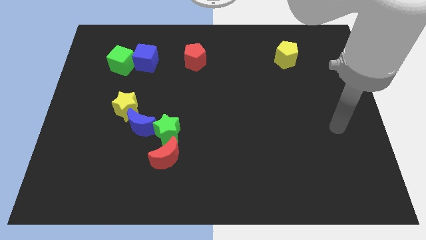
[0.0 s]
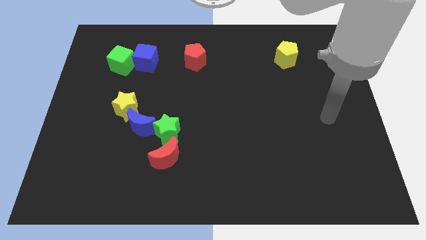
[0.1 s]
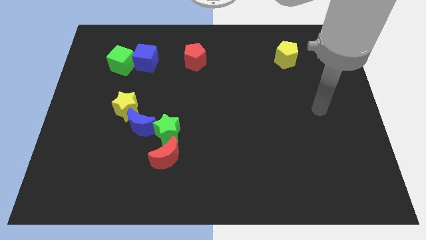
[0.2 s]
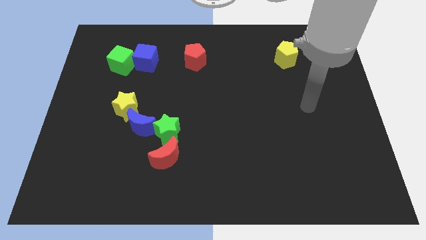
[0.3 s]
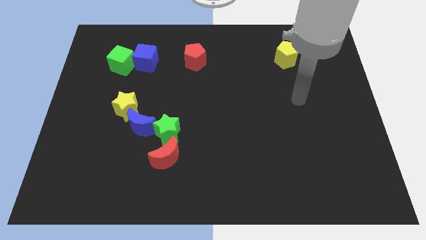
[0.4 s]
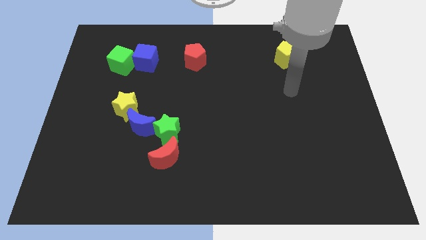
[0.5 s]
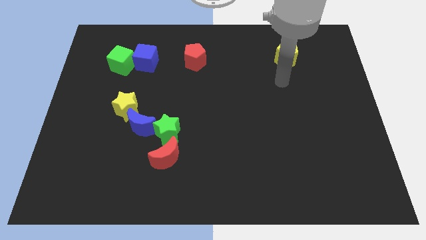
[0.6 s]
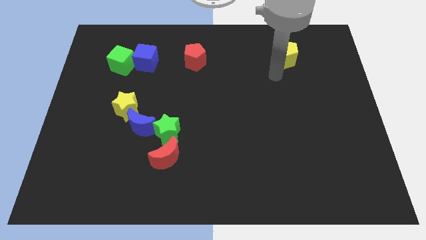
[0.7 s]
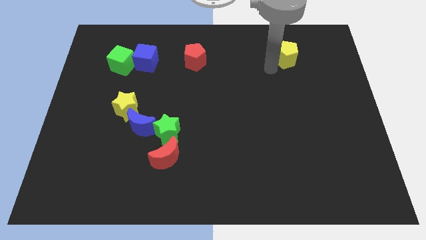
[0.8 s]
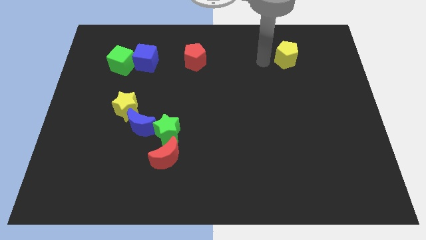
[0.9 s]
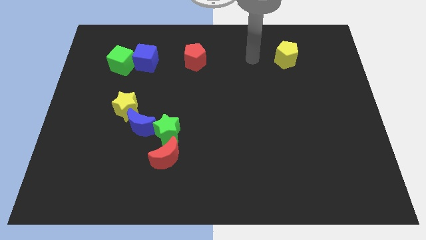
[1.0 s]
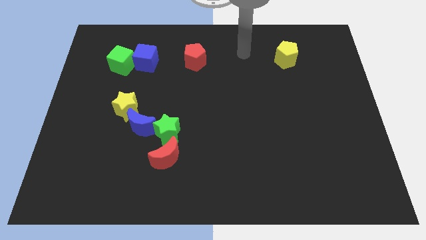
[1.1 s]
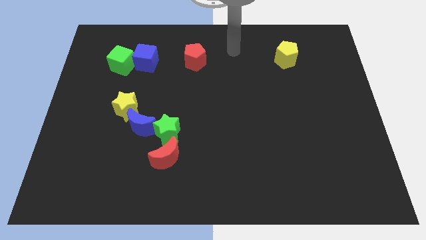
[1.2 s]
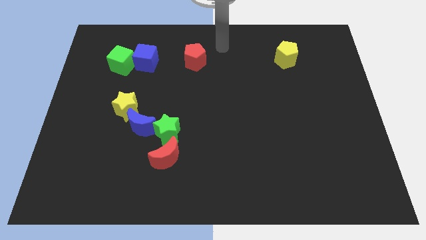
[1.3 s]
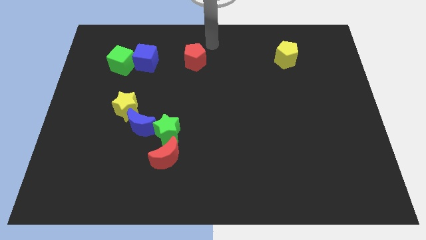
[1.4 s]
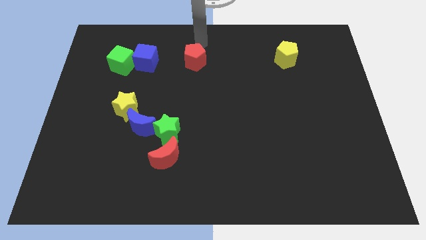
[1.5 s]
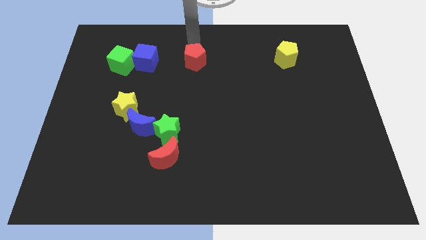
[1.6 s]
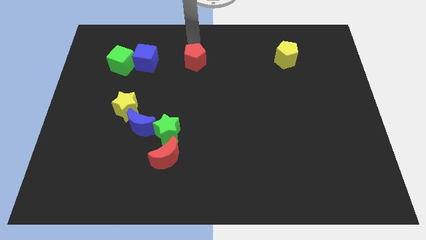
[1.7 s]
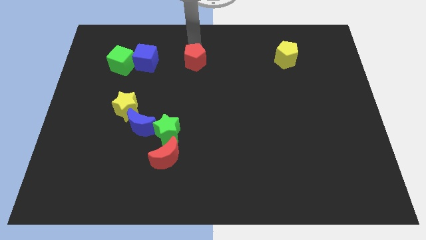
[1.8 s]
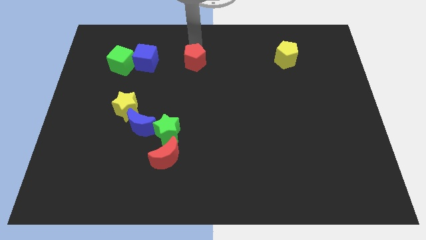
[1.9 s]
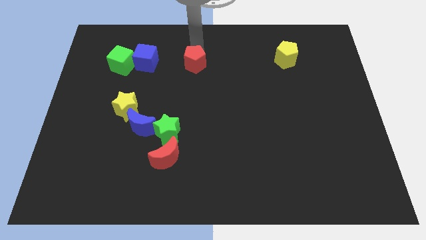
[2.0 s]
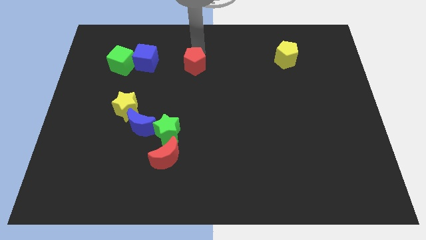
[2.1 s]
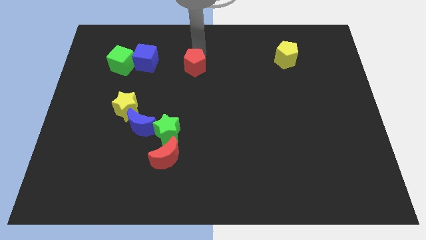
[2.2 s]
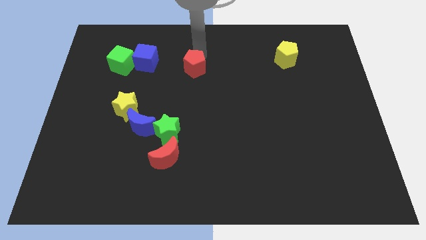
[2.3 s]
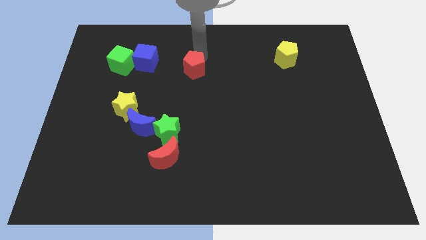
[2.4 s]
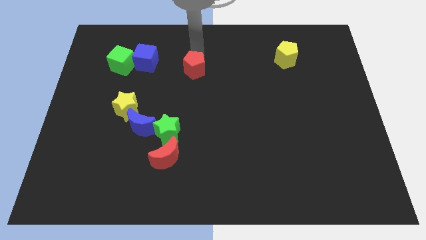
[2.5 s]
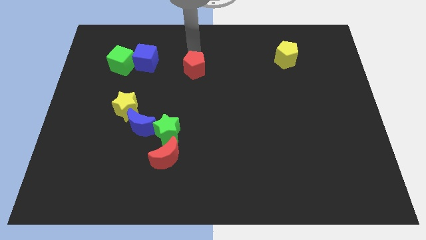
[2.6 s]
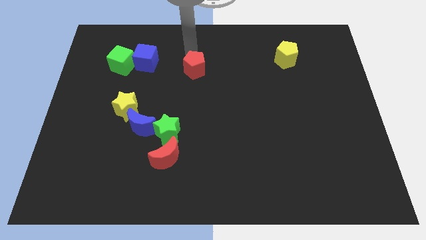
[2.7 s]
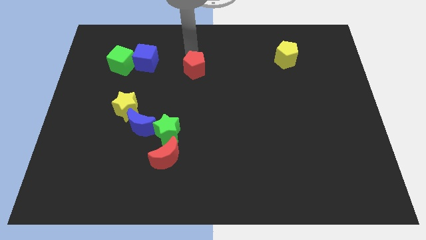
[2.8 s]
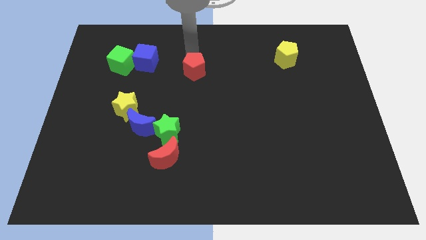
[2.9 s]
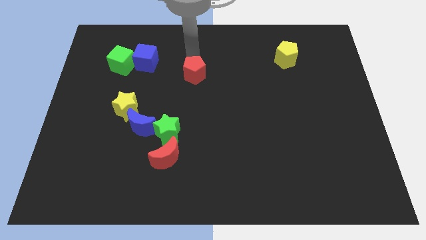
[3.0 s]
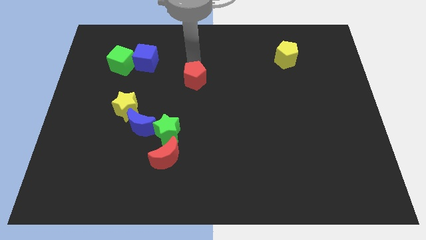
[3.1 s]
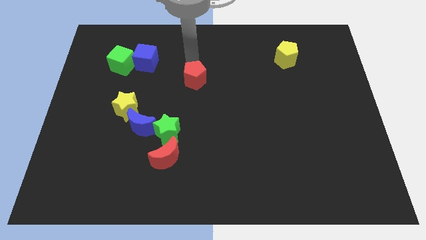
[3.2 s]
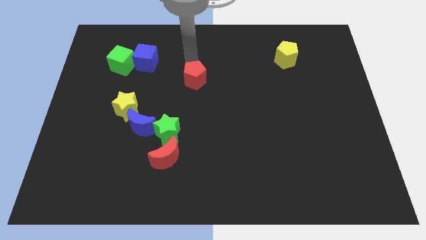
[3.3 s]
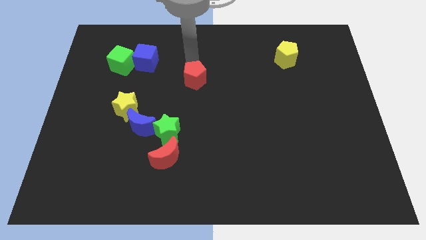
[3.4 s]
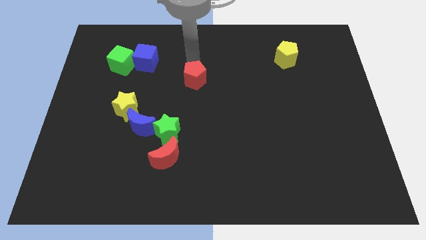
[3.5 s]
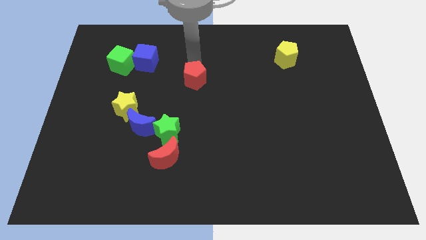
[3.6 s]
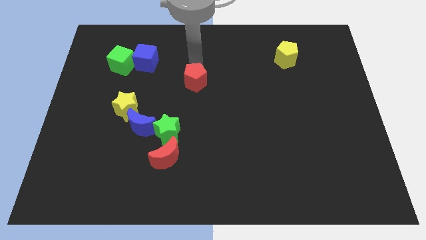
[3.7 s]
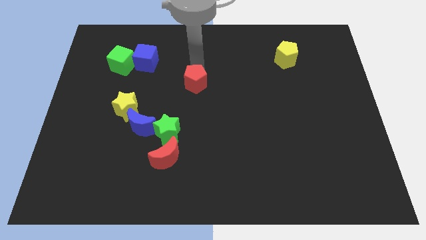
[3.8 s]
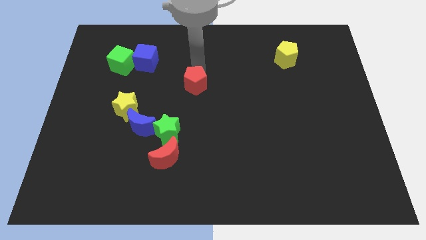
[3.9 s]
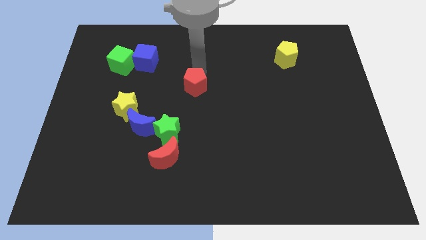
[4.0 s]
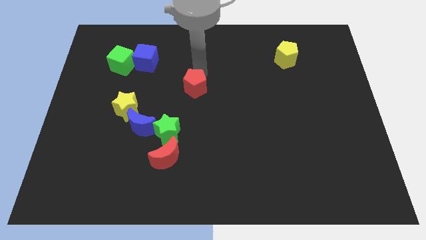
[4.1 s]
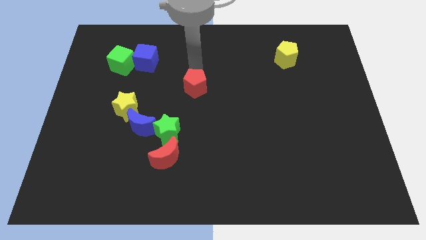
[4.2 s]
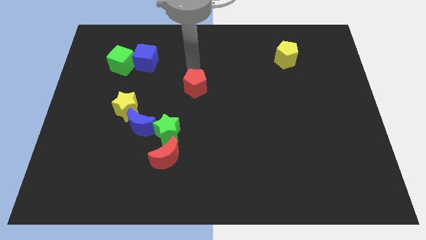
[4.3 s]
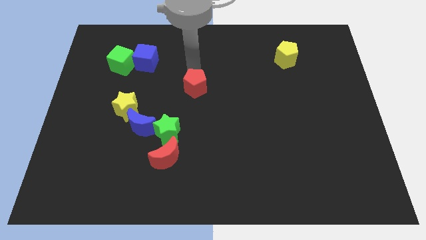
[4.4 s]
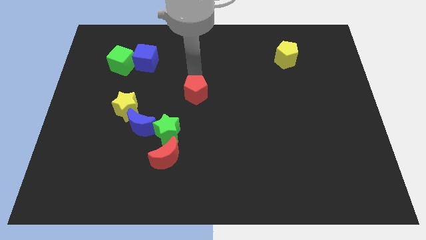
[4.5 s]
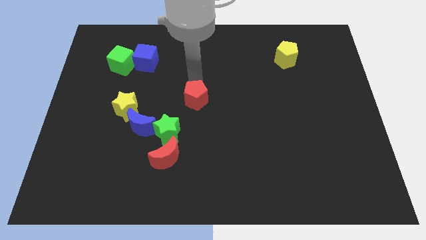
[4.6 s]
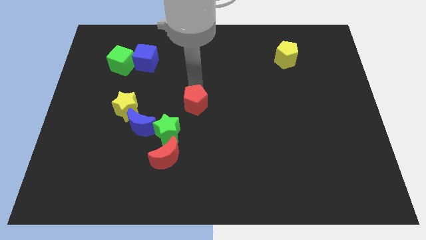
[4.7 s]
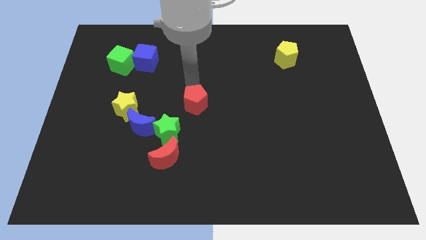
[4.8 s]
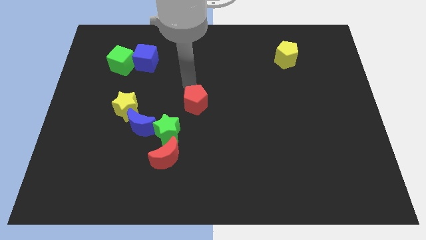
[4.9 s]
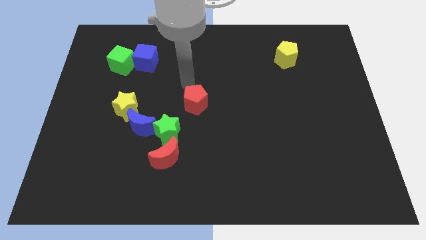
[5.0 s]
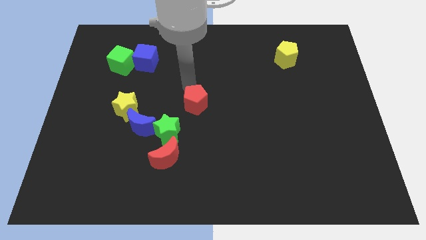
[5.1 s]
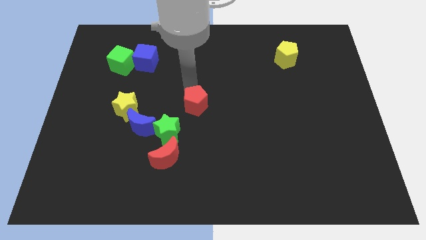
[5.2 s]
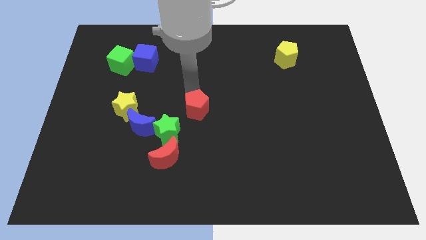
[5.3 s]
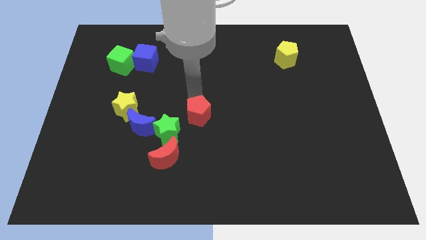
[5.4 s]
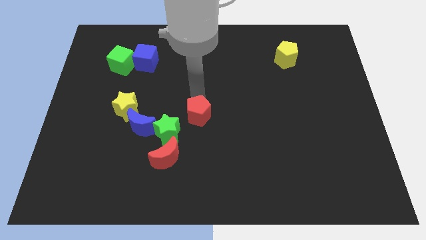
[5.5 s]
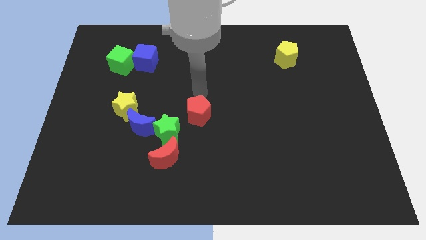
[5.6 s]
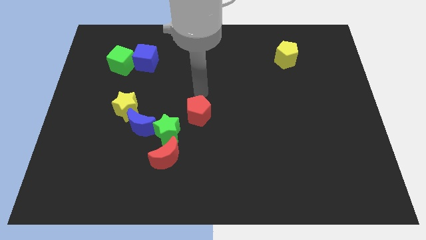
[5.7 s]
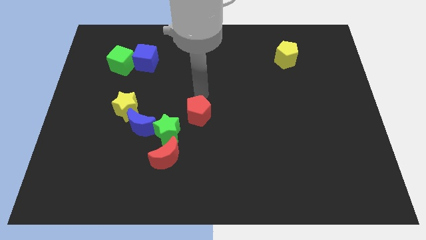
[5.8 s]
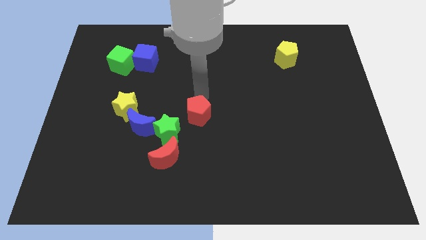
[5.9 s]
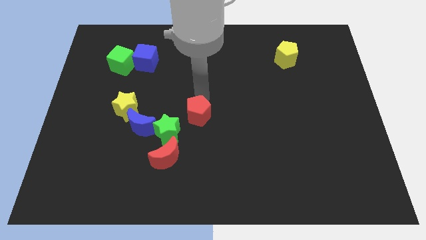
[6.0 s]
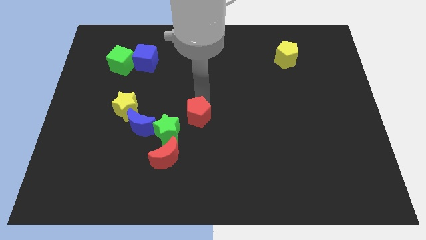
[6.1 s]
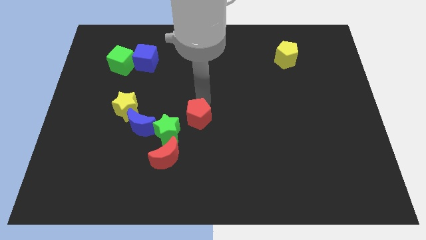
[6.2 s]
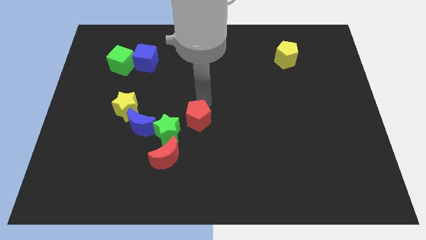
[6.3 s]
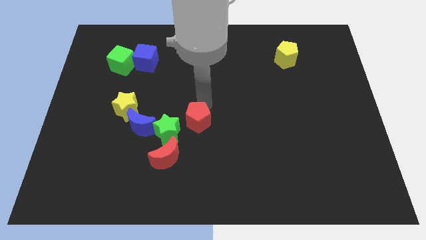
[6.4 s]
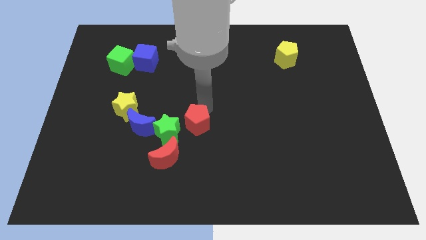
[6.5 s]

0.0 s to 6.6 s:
slide the red pentagon downwards

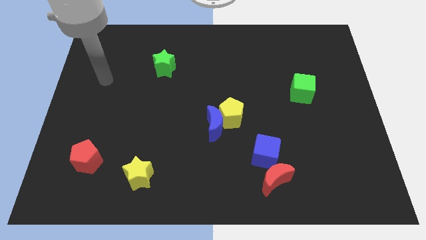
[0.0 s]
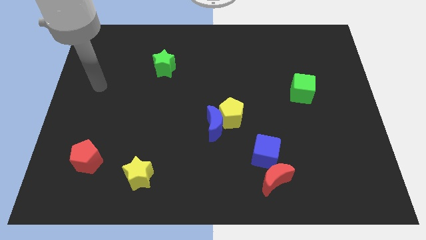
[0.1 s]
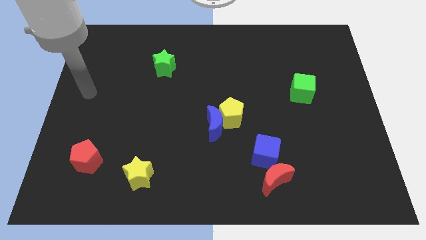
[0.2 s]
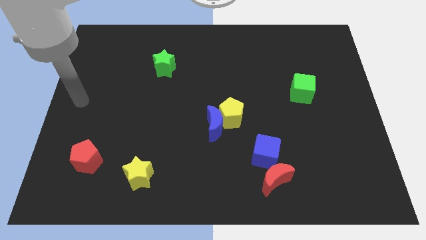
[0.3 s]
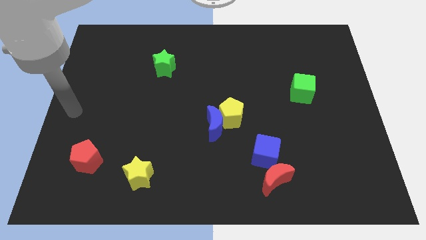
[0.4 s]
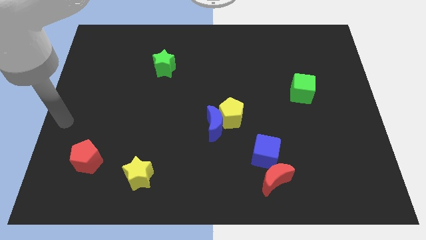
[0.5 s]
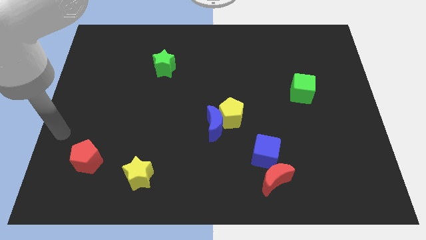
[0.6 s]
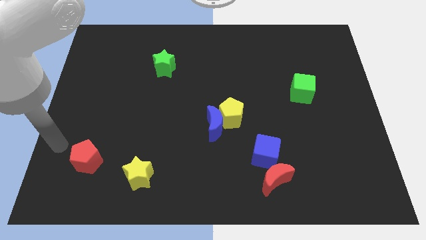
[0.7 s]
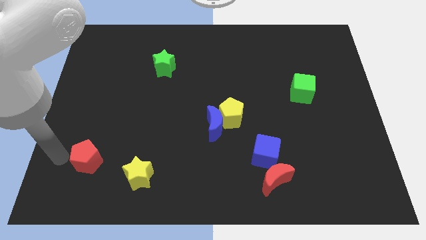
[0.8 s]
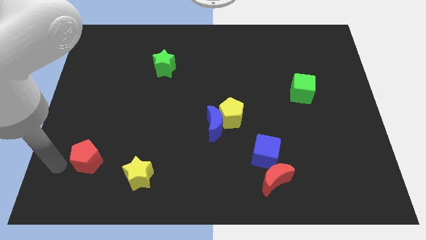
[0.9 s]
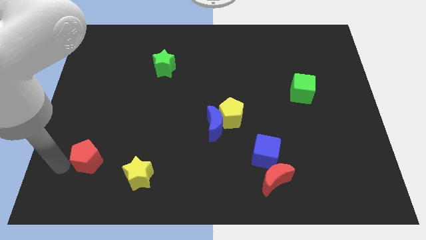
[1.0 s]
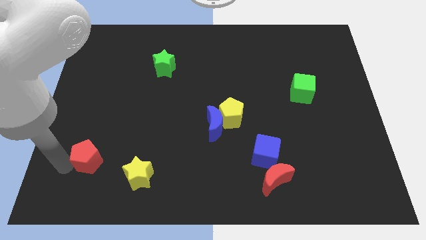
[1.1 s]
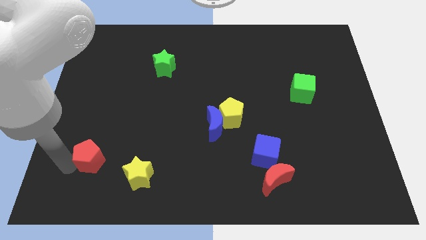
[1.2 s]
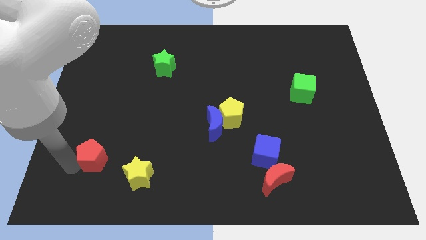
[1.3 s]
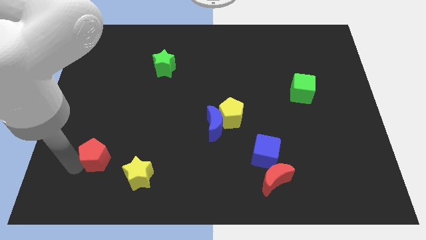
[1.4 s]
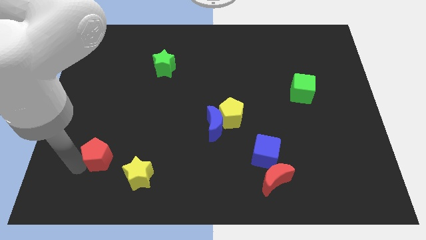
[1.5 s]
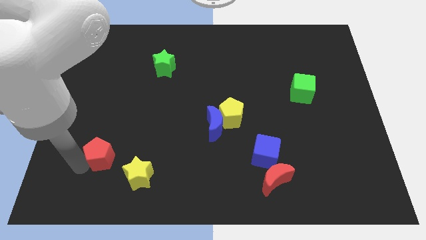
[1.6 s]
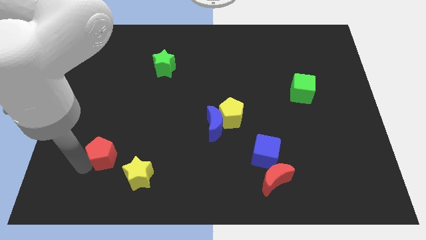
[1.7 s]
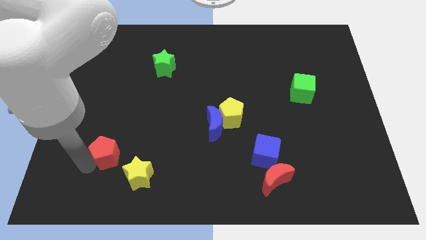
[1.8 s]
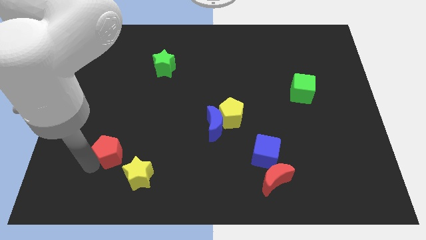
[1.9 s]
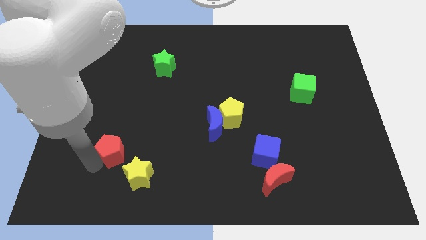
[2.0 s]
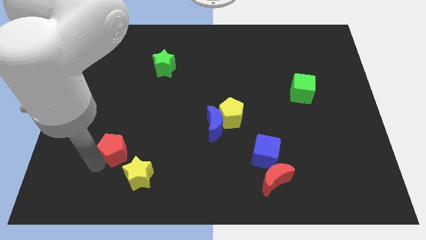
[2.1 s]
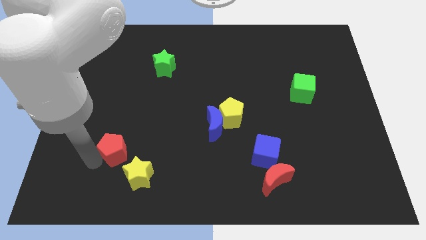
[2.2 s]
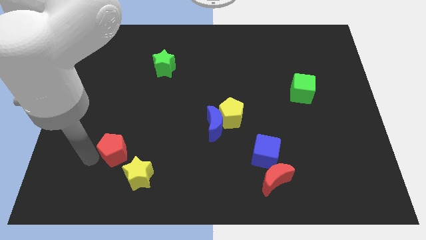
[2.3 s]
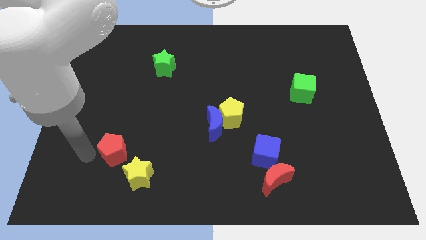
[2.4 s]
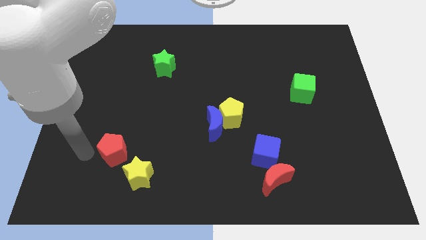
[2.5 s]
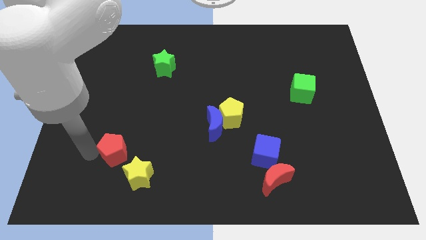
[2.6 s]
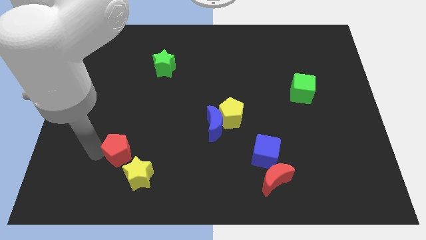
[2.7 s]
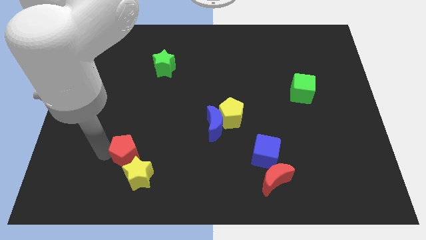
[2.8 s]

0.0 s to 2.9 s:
slide the red pentagon to the right a little bit
